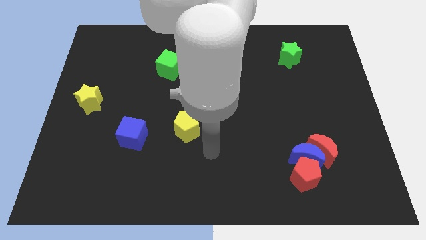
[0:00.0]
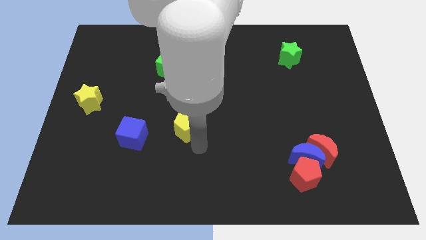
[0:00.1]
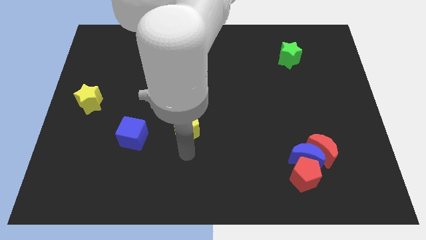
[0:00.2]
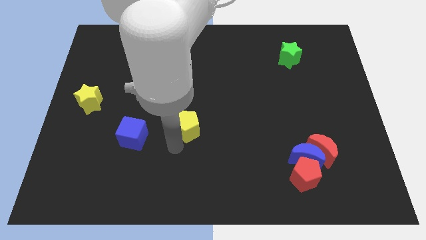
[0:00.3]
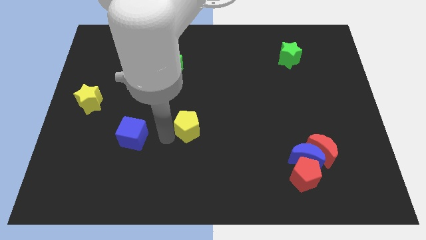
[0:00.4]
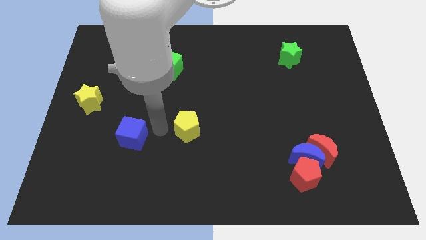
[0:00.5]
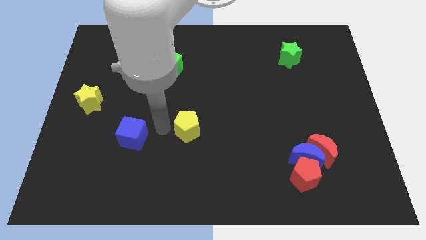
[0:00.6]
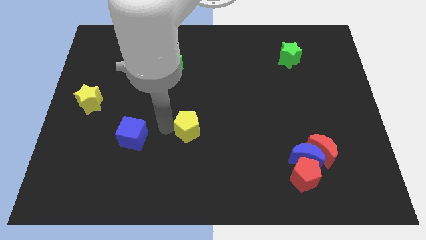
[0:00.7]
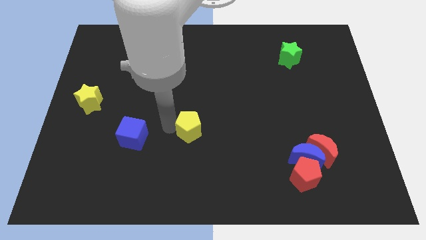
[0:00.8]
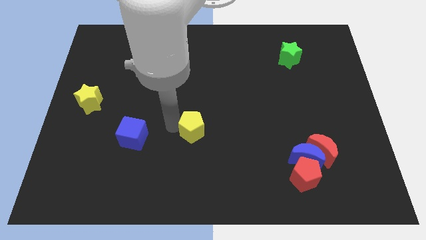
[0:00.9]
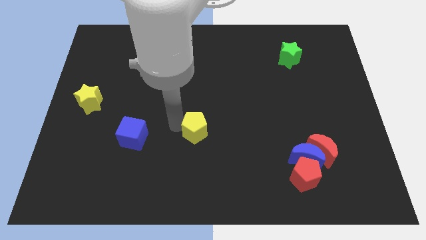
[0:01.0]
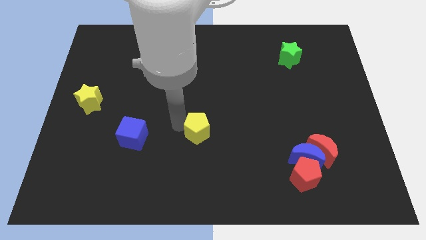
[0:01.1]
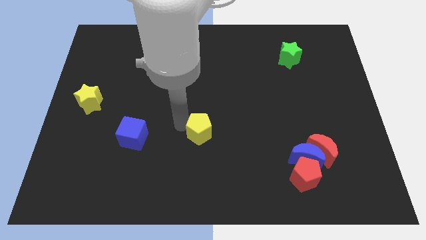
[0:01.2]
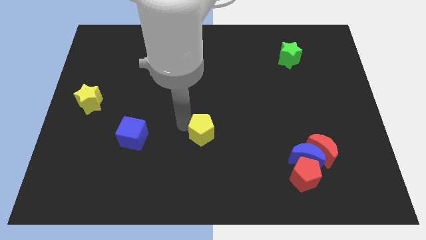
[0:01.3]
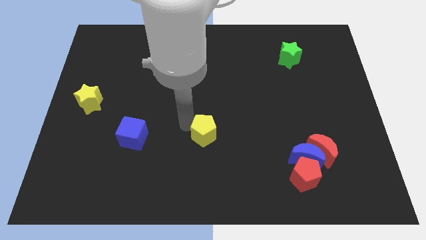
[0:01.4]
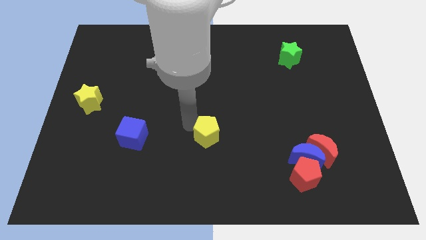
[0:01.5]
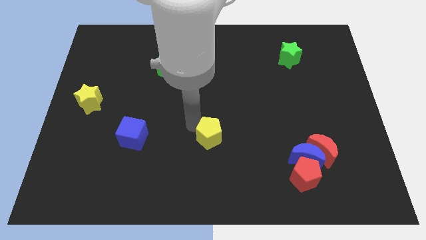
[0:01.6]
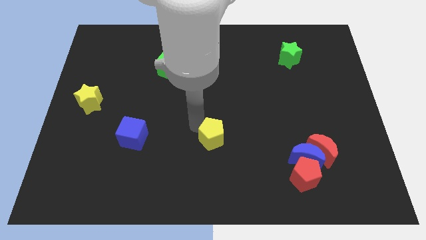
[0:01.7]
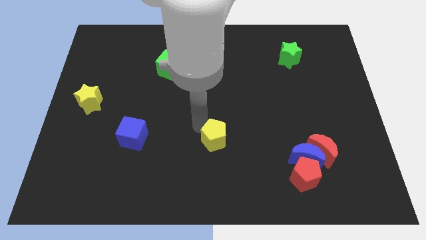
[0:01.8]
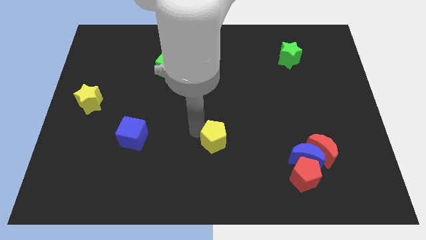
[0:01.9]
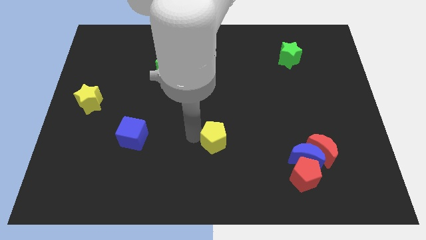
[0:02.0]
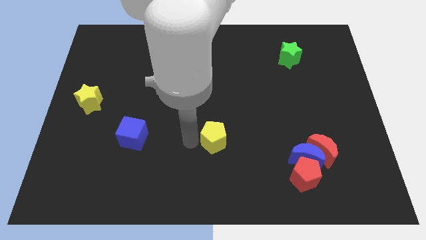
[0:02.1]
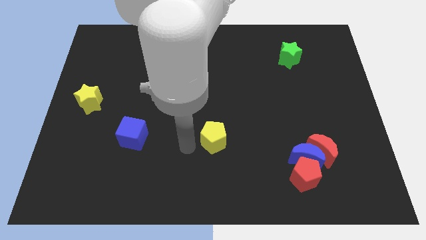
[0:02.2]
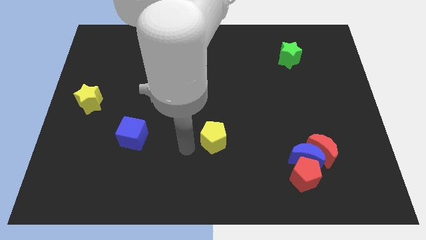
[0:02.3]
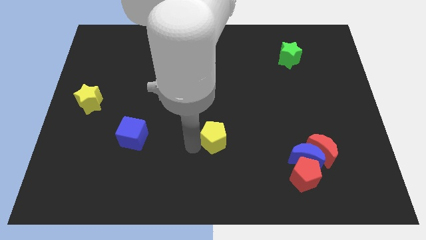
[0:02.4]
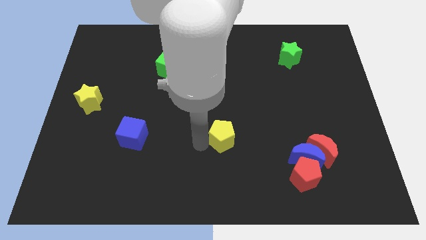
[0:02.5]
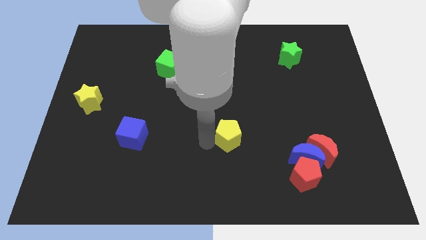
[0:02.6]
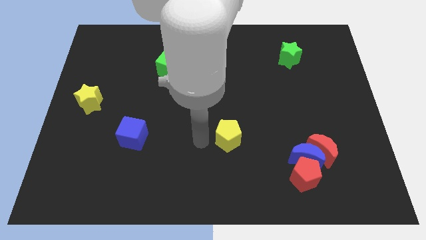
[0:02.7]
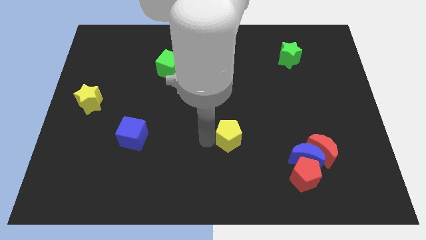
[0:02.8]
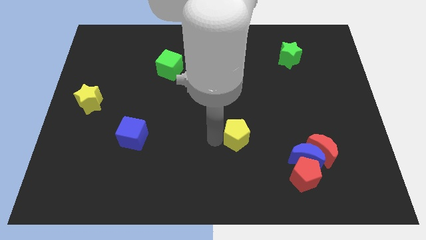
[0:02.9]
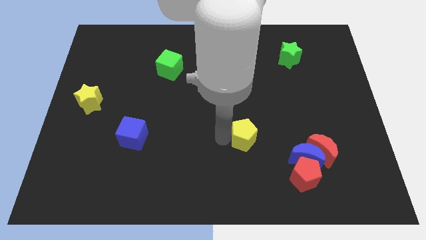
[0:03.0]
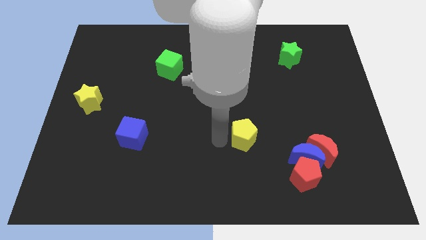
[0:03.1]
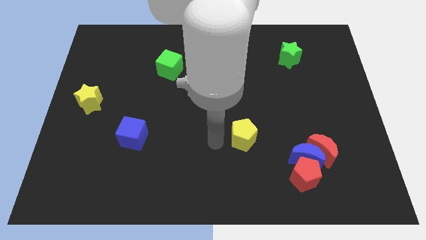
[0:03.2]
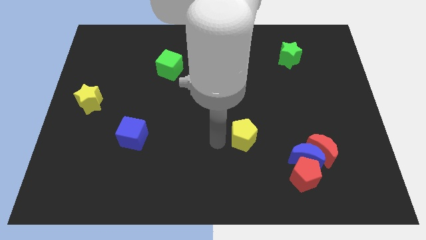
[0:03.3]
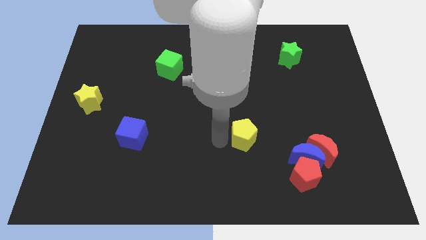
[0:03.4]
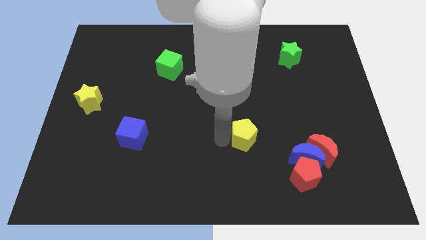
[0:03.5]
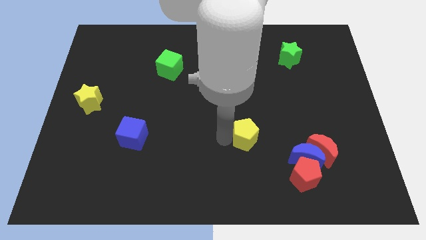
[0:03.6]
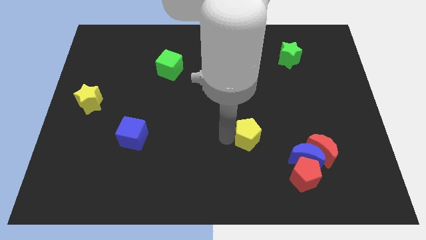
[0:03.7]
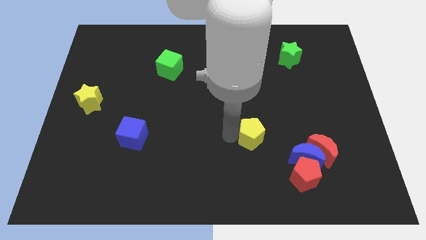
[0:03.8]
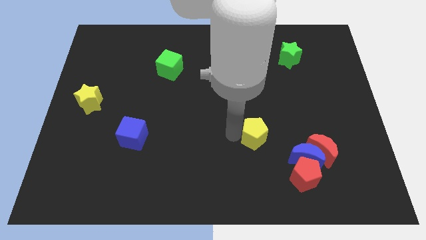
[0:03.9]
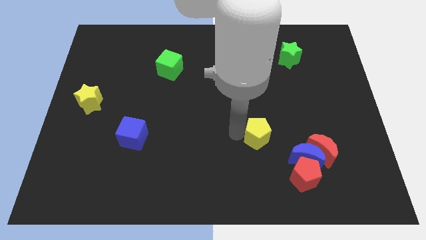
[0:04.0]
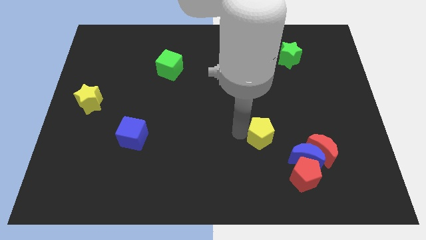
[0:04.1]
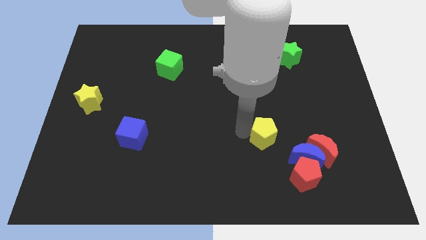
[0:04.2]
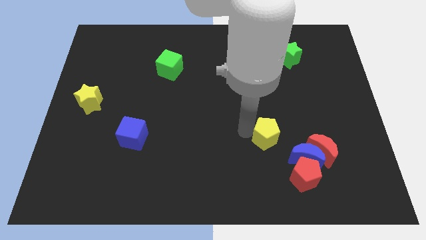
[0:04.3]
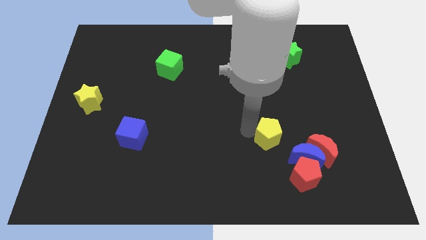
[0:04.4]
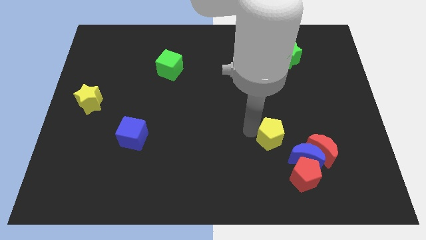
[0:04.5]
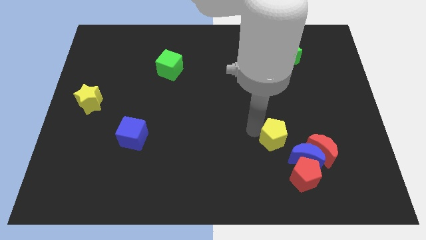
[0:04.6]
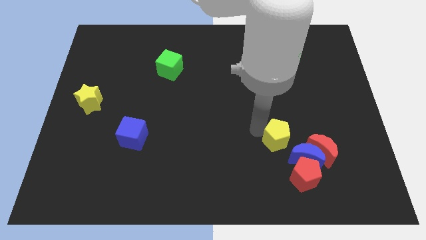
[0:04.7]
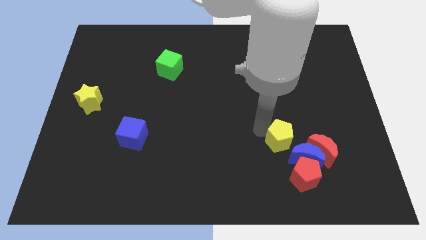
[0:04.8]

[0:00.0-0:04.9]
slide the yellow pentagon to the right

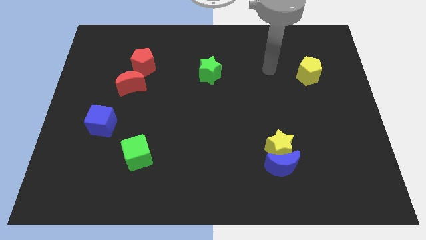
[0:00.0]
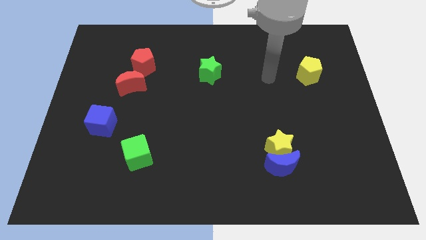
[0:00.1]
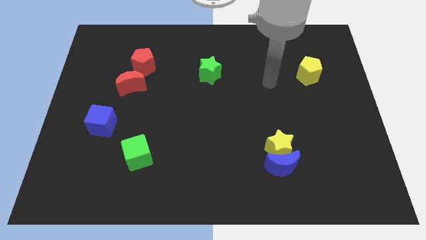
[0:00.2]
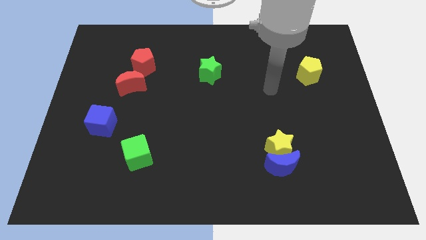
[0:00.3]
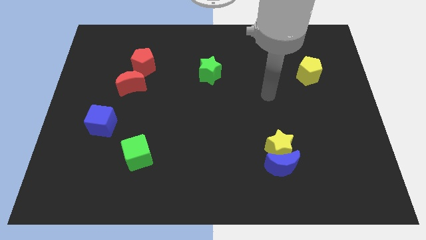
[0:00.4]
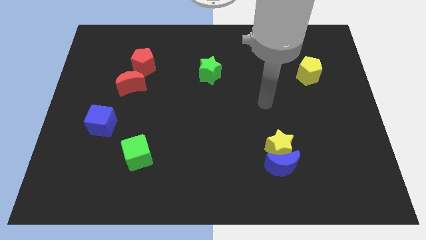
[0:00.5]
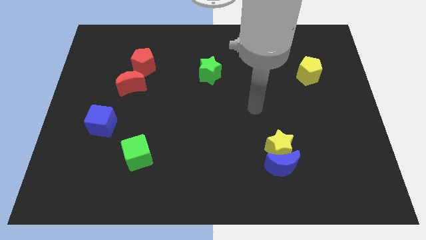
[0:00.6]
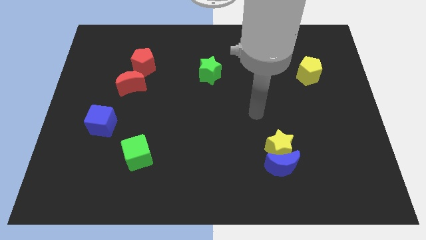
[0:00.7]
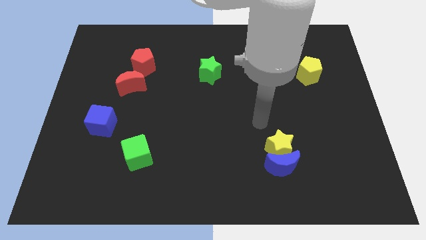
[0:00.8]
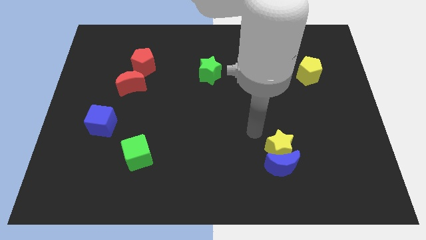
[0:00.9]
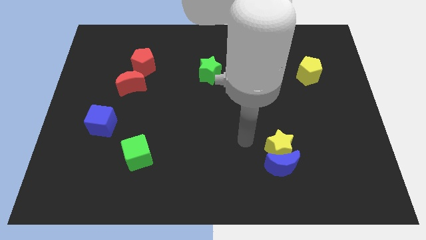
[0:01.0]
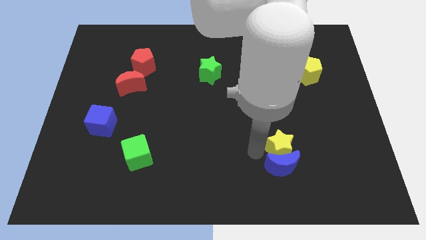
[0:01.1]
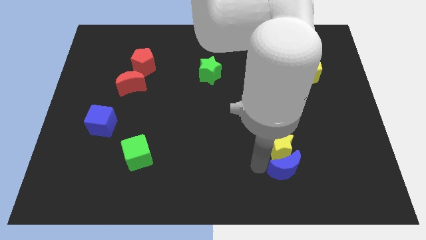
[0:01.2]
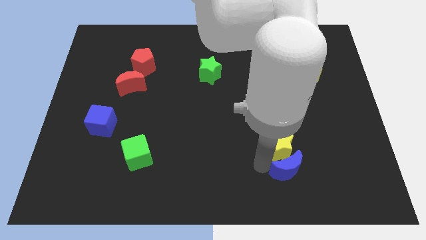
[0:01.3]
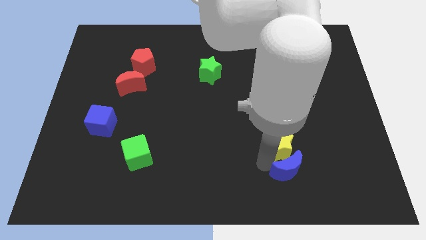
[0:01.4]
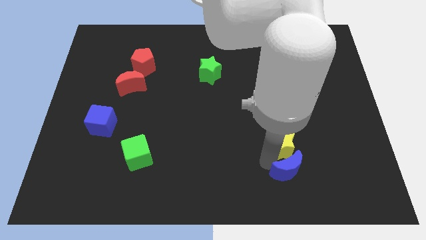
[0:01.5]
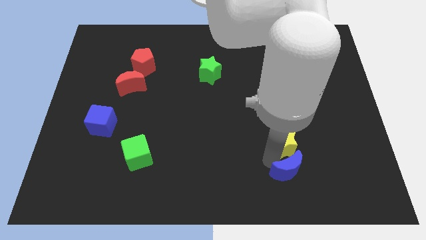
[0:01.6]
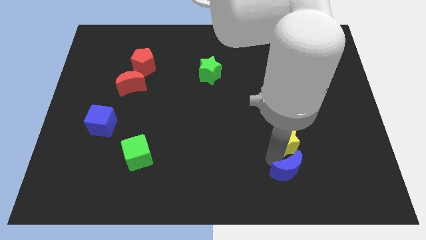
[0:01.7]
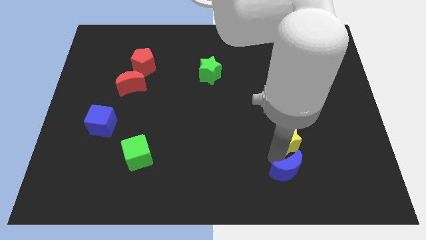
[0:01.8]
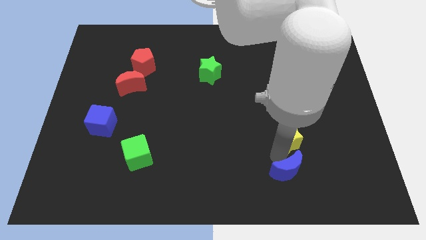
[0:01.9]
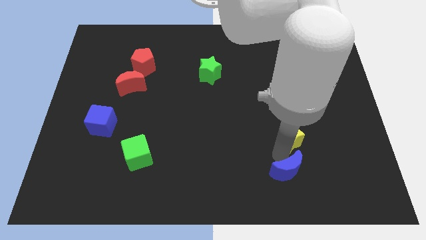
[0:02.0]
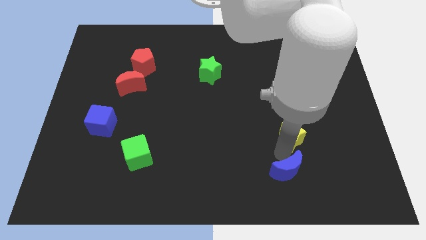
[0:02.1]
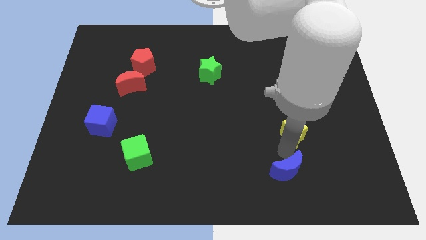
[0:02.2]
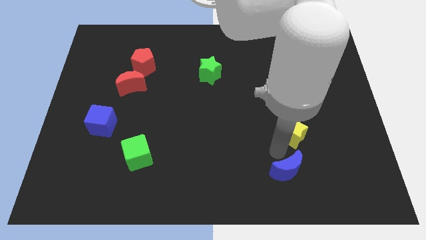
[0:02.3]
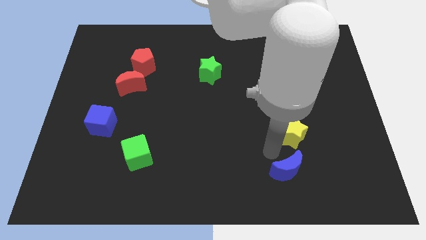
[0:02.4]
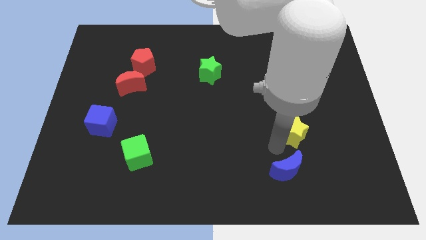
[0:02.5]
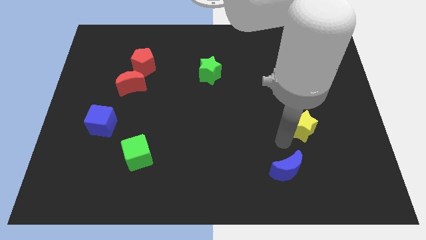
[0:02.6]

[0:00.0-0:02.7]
slightly push the yellow star up and to the right diagonally

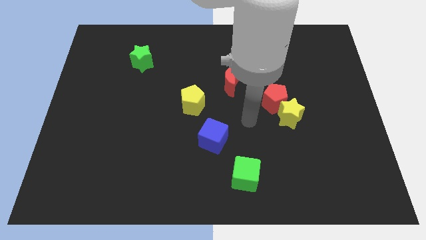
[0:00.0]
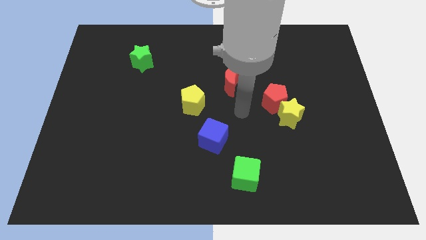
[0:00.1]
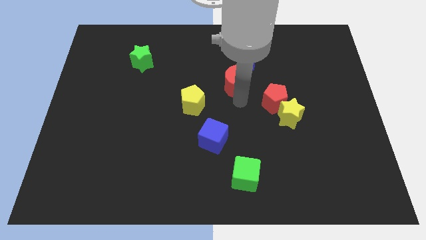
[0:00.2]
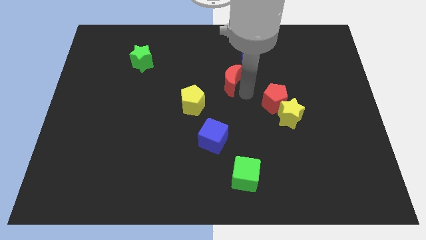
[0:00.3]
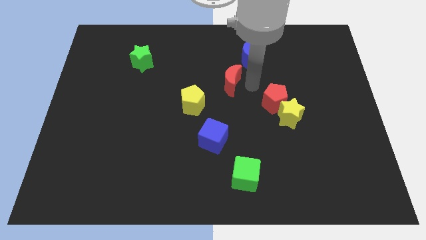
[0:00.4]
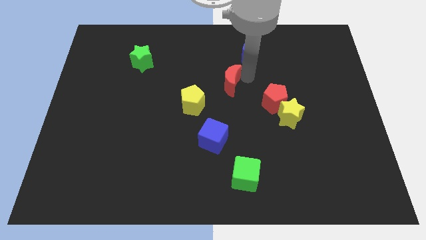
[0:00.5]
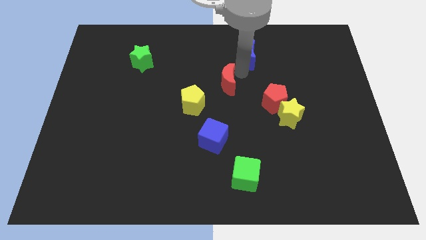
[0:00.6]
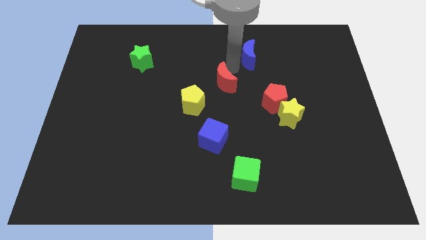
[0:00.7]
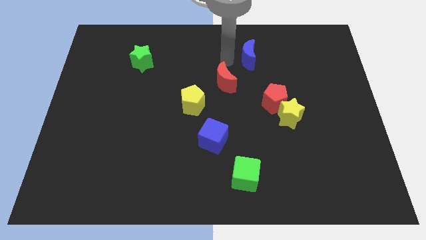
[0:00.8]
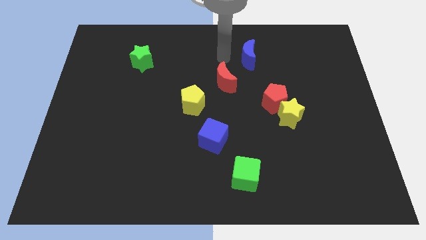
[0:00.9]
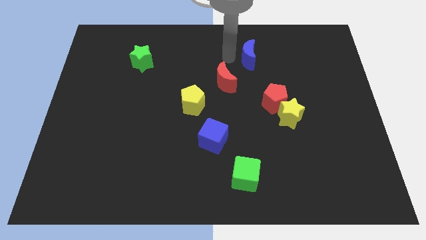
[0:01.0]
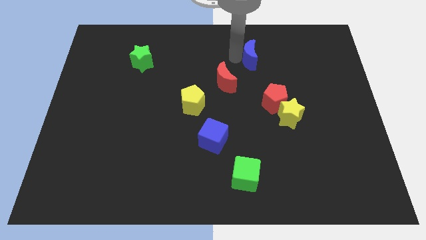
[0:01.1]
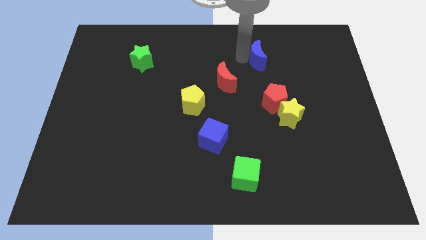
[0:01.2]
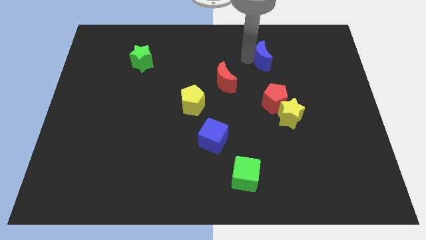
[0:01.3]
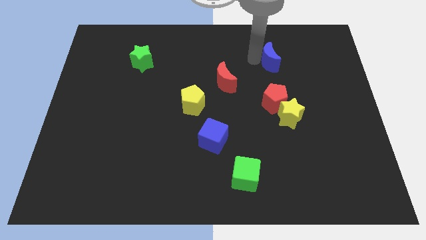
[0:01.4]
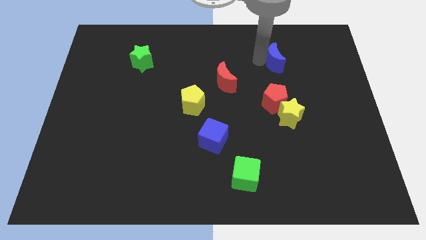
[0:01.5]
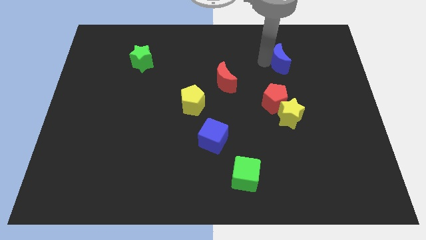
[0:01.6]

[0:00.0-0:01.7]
push the blue moon a little right
